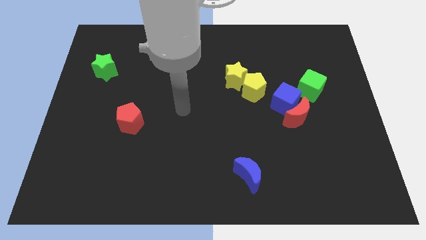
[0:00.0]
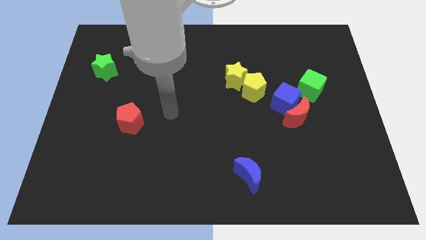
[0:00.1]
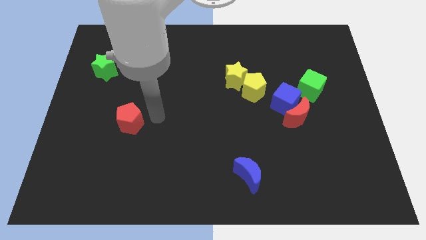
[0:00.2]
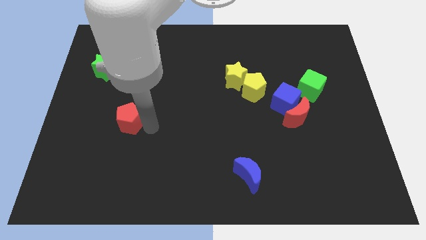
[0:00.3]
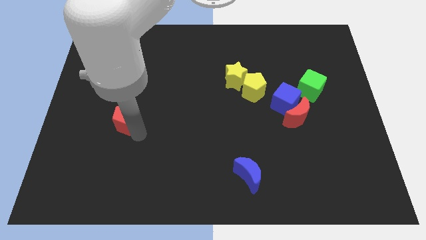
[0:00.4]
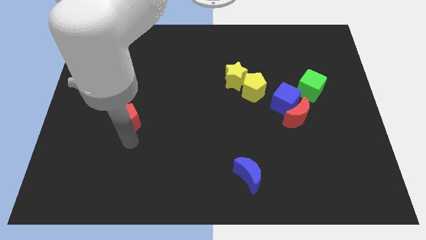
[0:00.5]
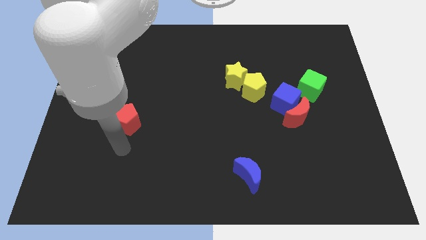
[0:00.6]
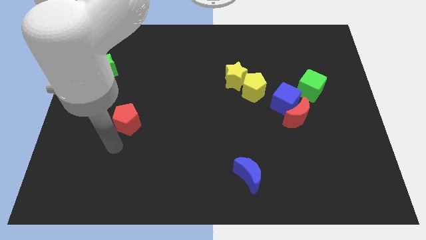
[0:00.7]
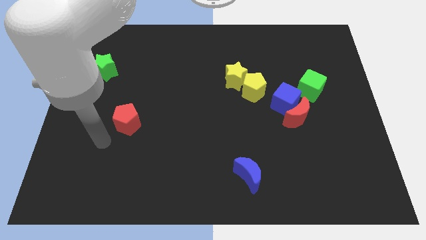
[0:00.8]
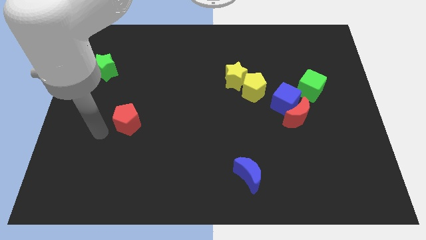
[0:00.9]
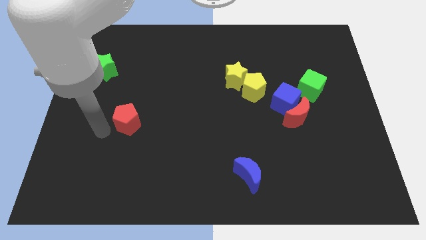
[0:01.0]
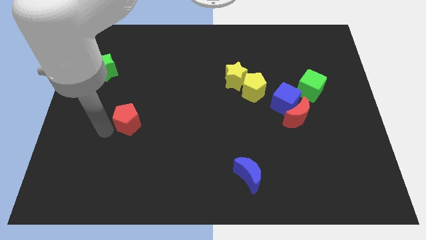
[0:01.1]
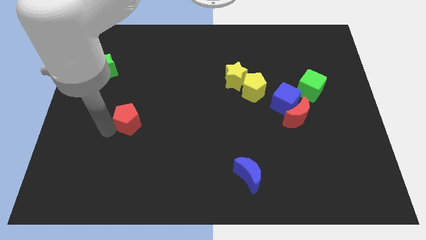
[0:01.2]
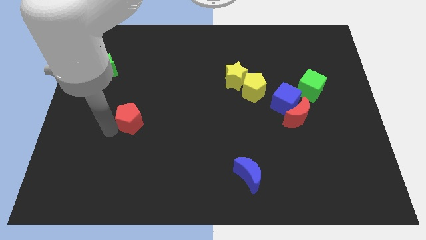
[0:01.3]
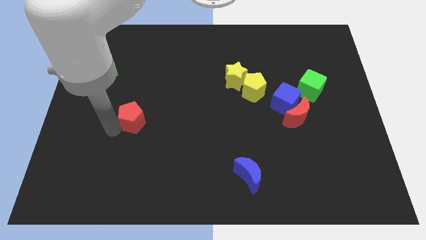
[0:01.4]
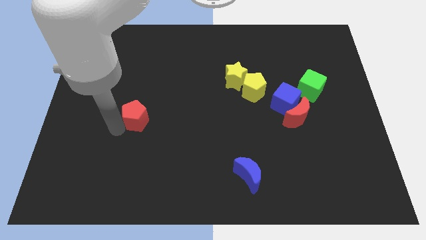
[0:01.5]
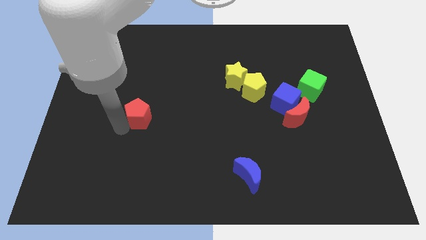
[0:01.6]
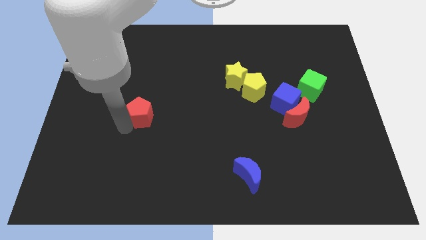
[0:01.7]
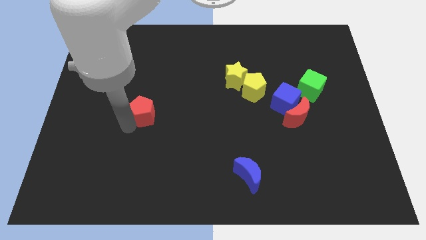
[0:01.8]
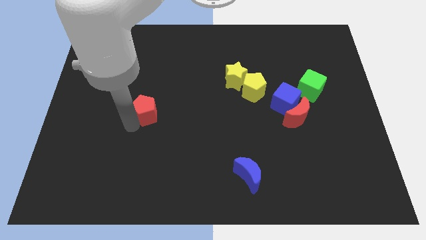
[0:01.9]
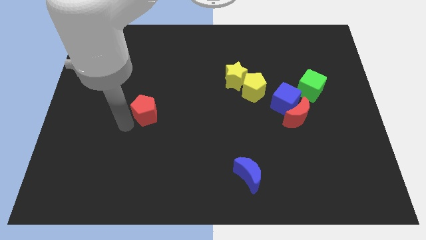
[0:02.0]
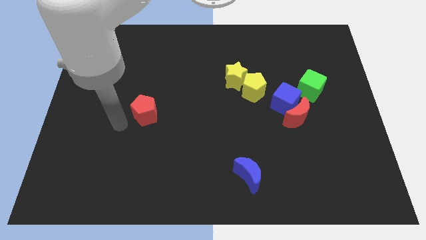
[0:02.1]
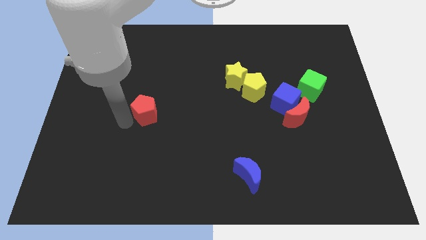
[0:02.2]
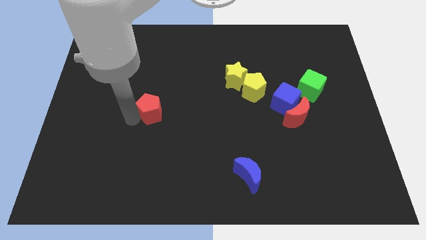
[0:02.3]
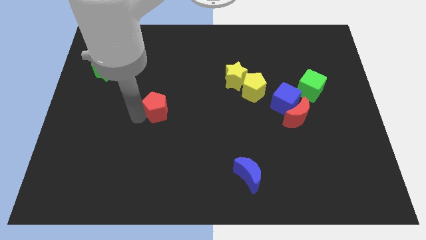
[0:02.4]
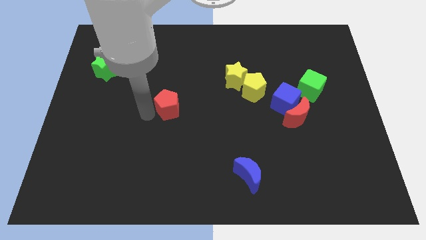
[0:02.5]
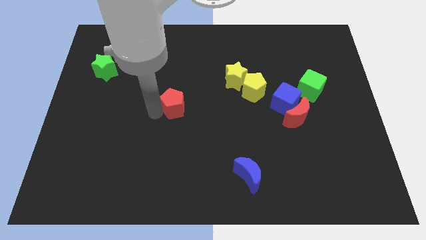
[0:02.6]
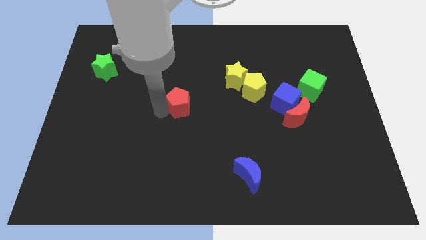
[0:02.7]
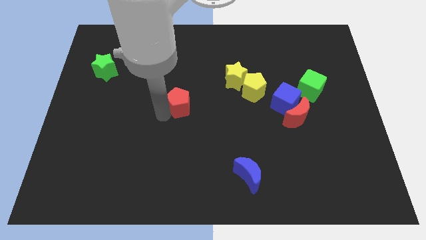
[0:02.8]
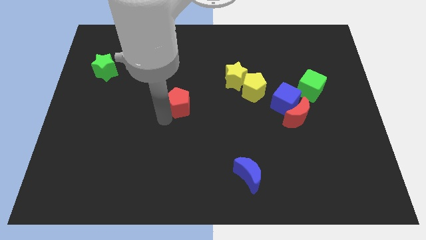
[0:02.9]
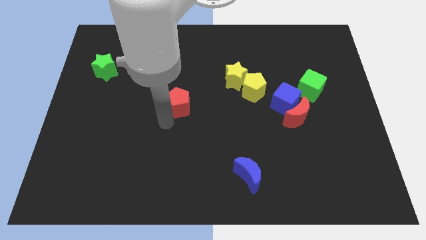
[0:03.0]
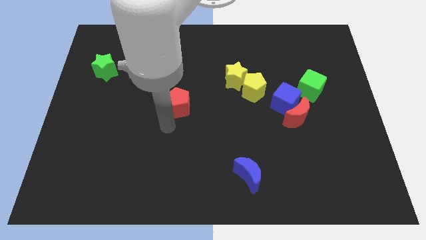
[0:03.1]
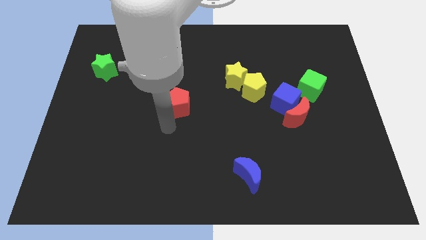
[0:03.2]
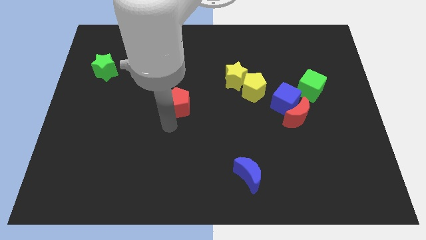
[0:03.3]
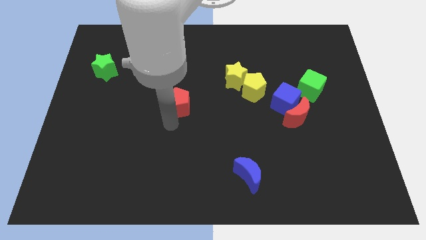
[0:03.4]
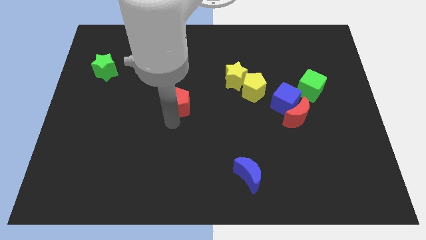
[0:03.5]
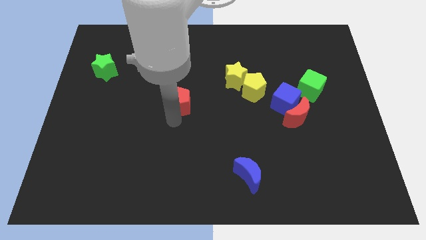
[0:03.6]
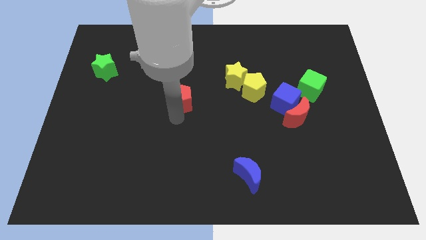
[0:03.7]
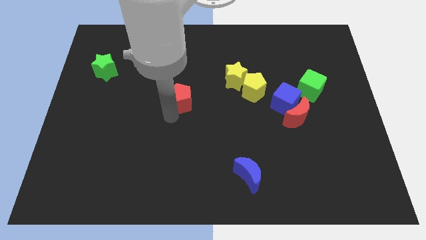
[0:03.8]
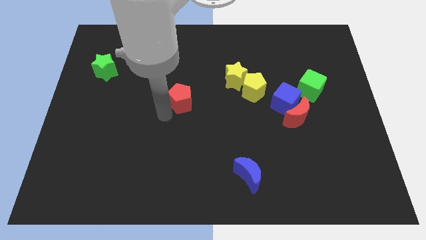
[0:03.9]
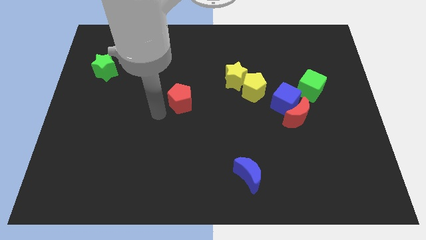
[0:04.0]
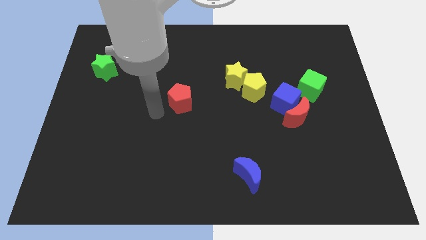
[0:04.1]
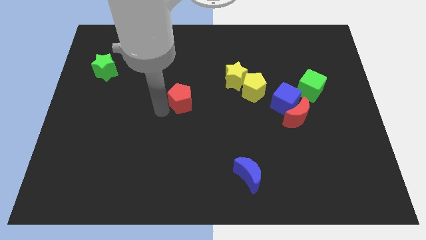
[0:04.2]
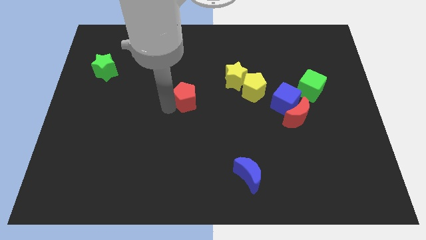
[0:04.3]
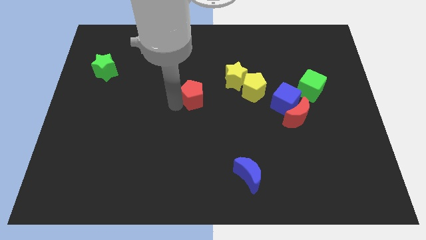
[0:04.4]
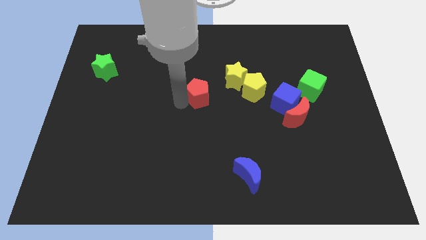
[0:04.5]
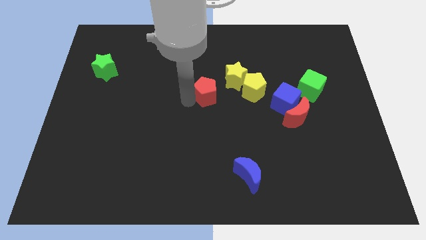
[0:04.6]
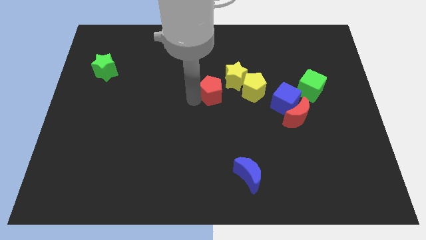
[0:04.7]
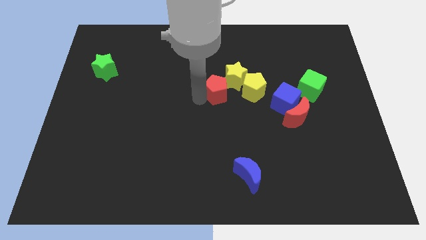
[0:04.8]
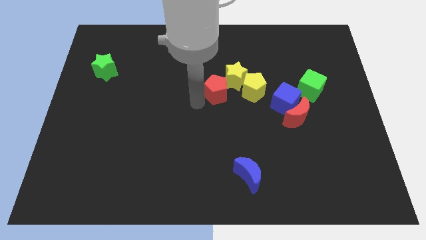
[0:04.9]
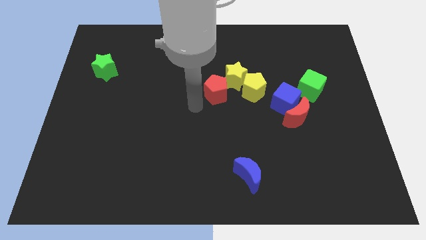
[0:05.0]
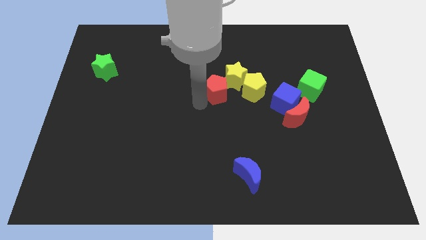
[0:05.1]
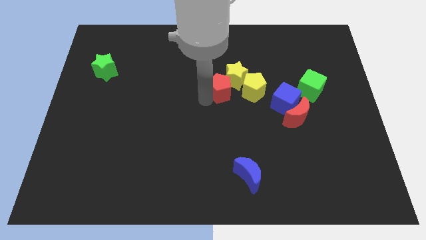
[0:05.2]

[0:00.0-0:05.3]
put the red pentagon towards the yellow star

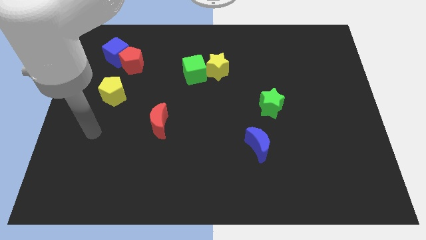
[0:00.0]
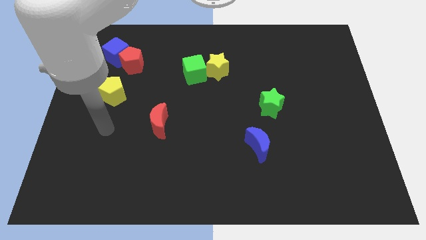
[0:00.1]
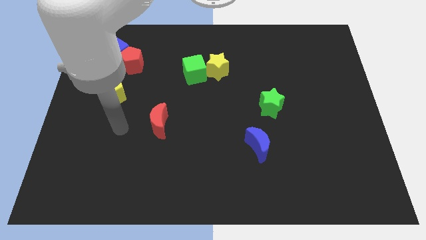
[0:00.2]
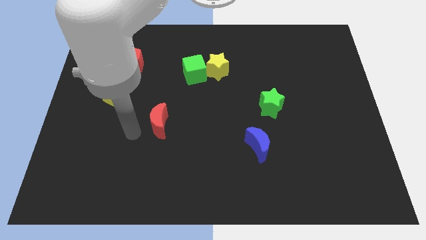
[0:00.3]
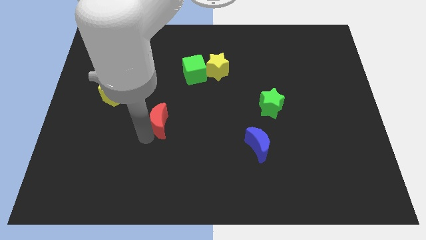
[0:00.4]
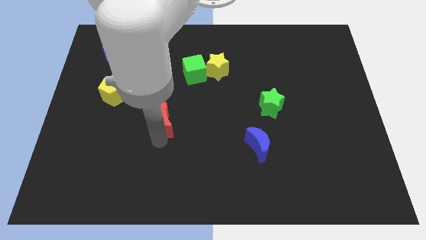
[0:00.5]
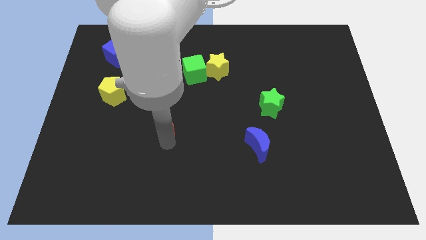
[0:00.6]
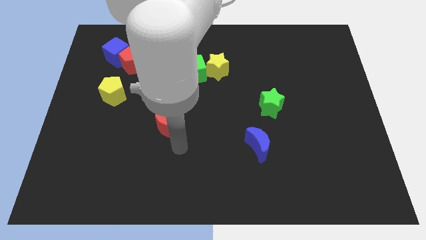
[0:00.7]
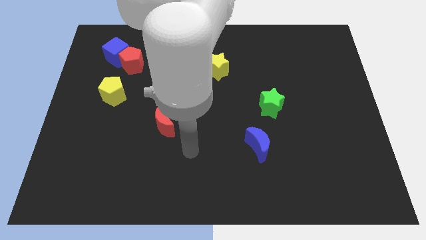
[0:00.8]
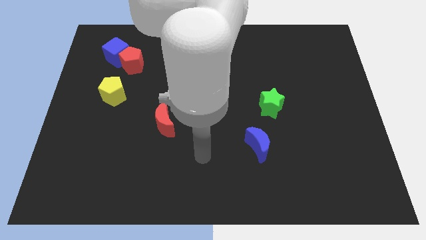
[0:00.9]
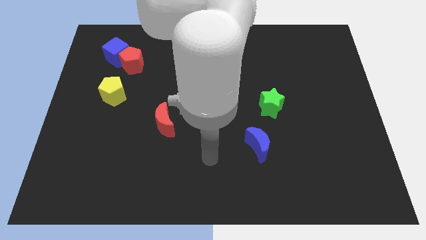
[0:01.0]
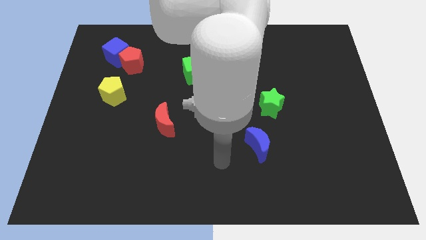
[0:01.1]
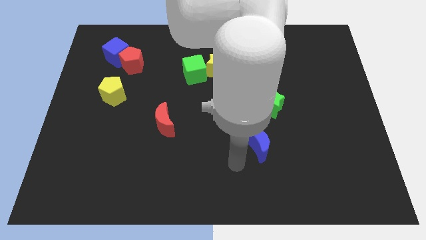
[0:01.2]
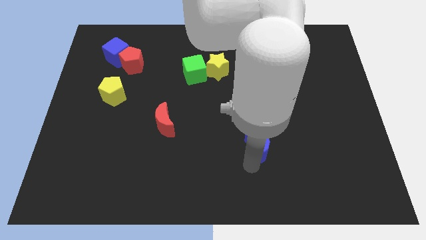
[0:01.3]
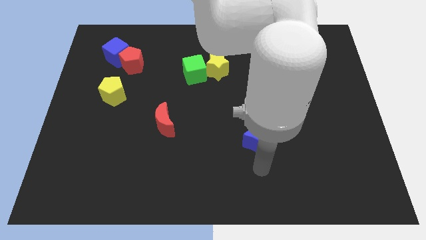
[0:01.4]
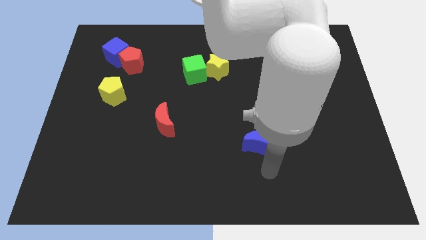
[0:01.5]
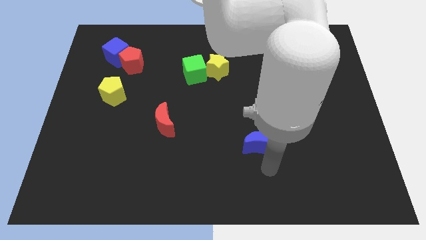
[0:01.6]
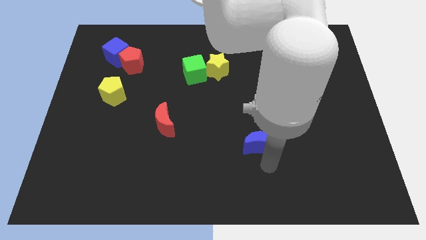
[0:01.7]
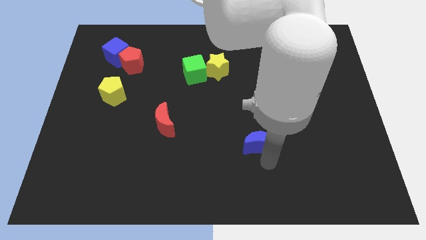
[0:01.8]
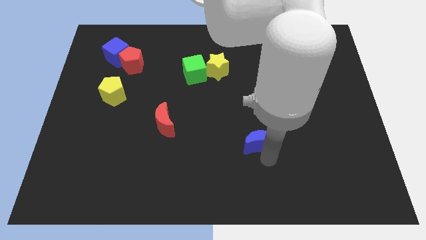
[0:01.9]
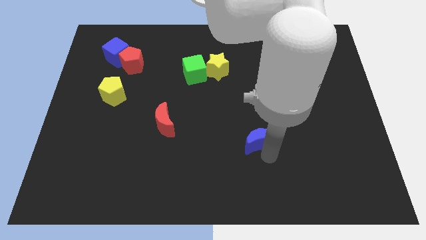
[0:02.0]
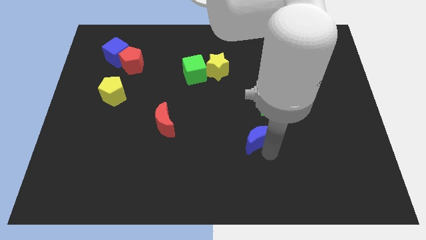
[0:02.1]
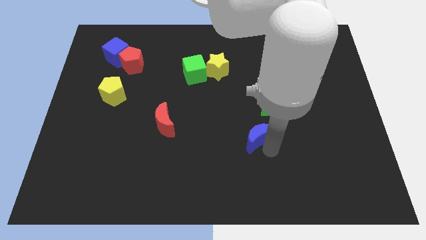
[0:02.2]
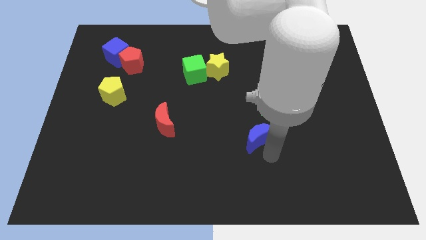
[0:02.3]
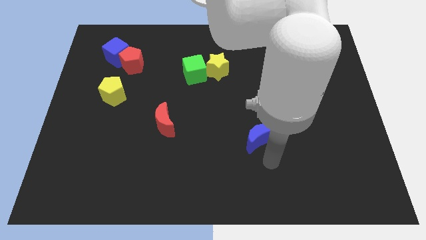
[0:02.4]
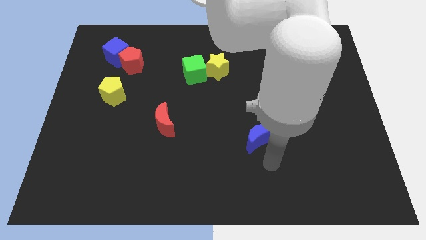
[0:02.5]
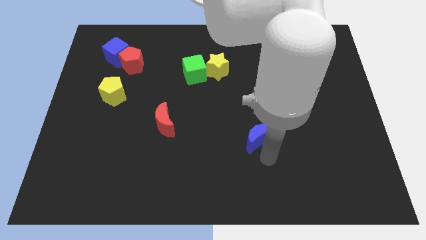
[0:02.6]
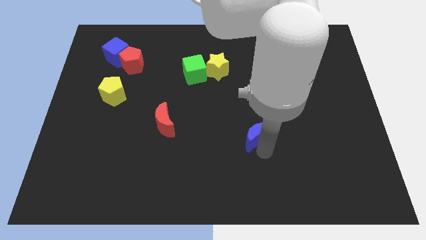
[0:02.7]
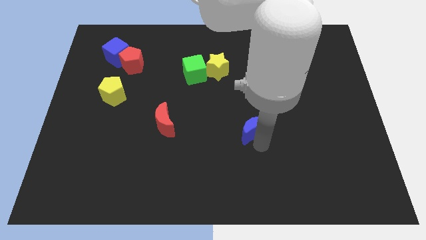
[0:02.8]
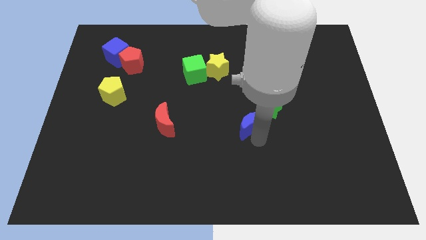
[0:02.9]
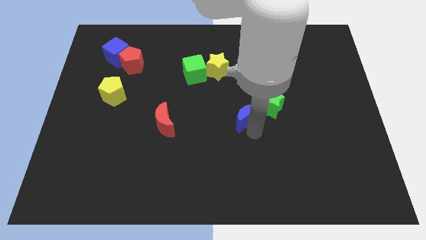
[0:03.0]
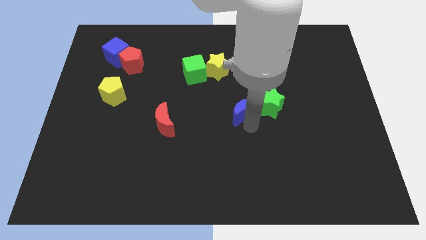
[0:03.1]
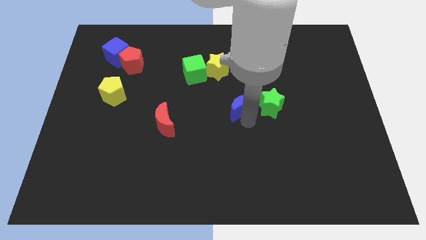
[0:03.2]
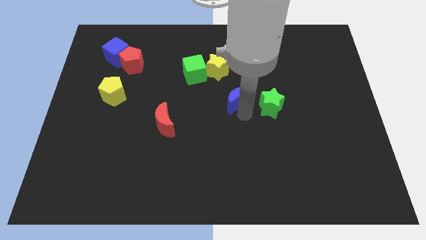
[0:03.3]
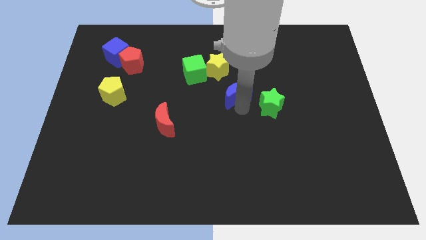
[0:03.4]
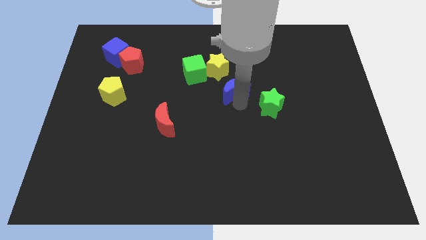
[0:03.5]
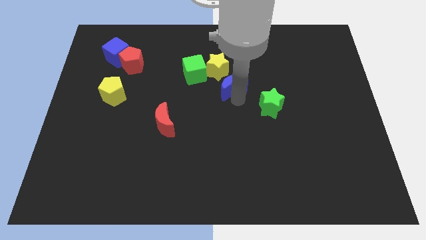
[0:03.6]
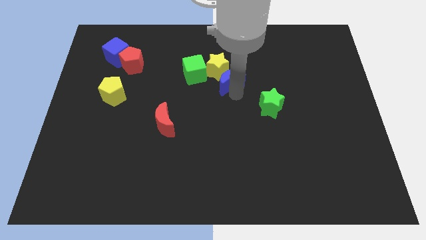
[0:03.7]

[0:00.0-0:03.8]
slide the blue moon towards the yellow star
